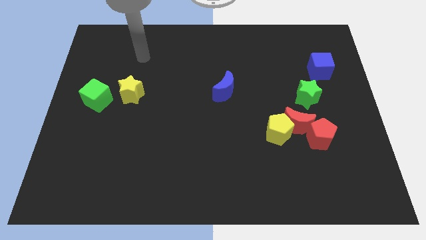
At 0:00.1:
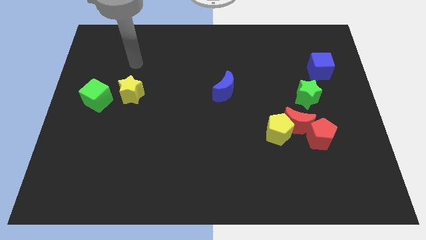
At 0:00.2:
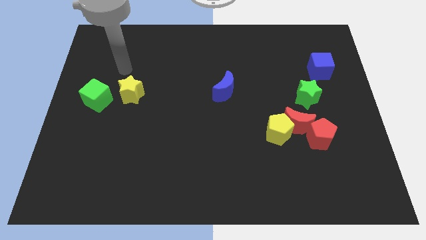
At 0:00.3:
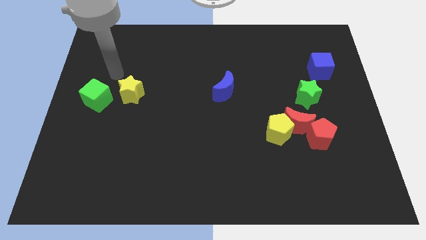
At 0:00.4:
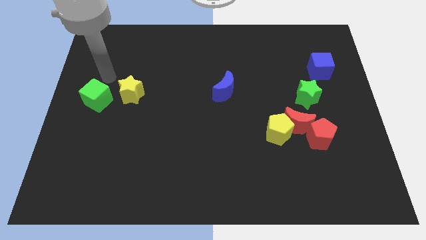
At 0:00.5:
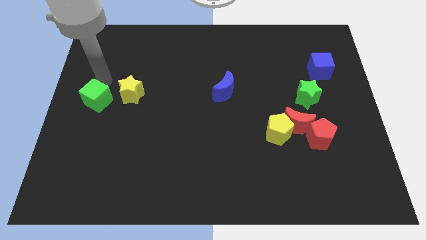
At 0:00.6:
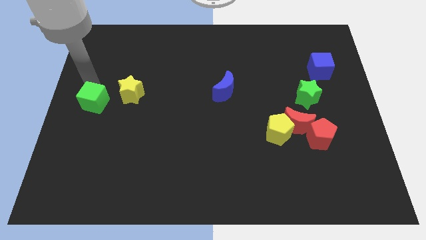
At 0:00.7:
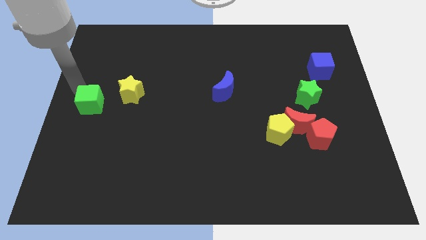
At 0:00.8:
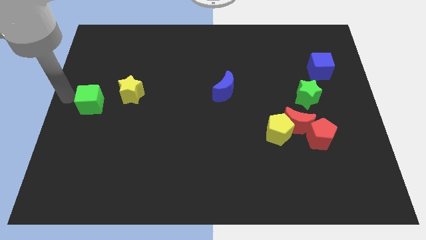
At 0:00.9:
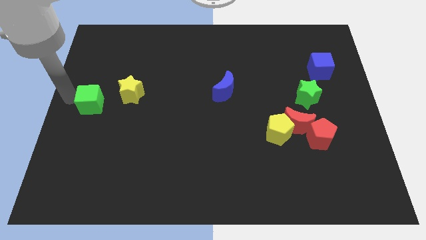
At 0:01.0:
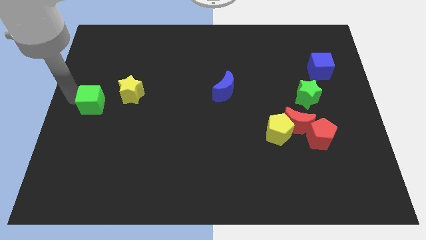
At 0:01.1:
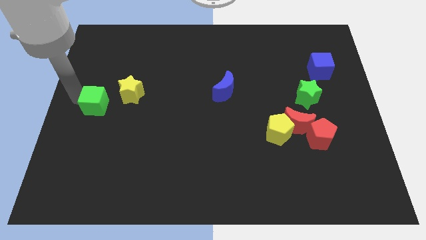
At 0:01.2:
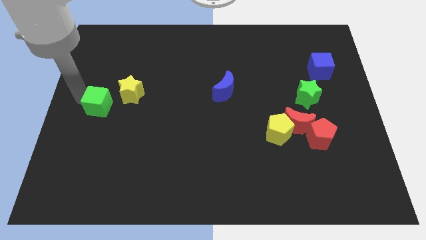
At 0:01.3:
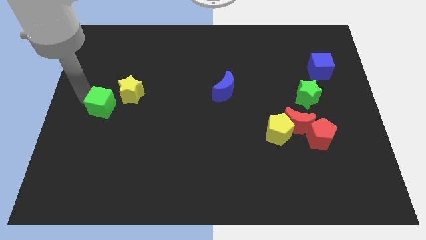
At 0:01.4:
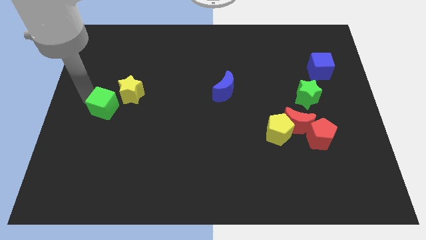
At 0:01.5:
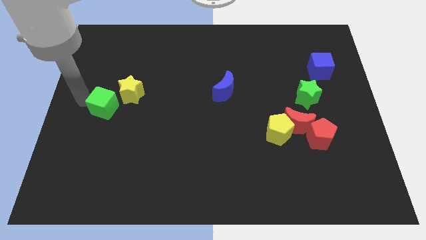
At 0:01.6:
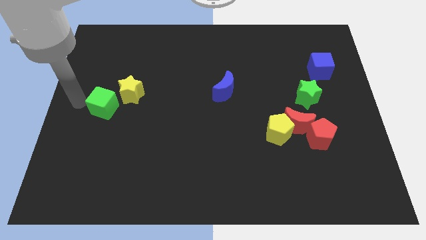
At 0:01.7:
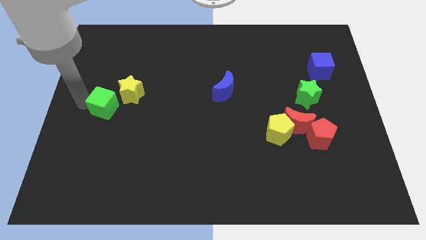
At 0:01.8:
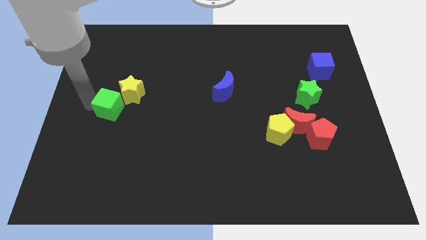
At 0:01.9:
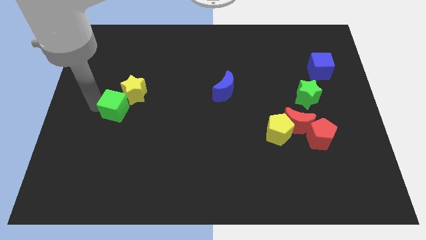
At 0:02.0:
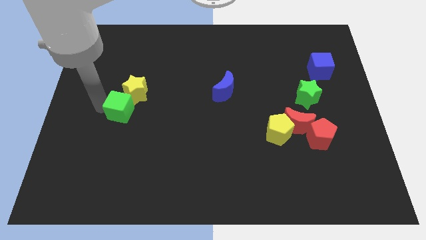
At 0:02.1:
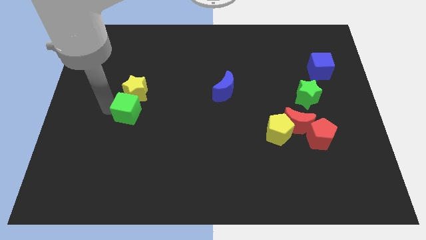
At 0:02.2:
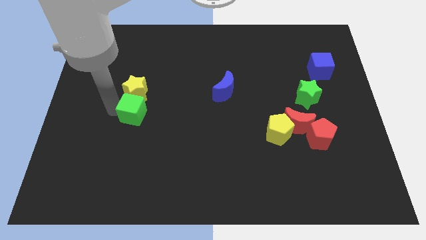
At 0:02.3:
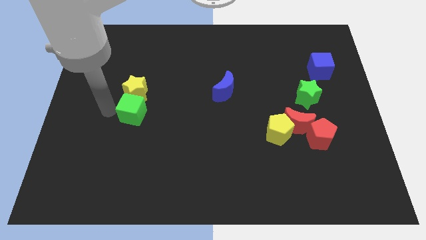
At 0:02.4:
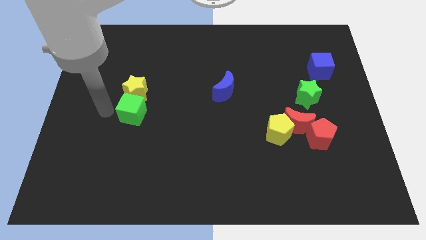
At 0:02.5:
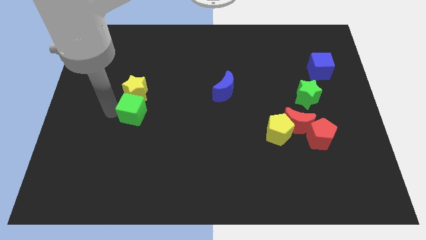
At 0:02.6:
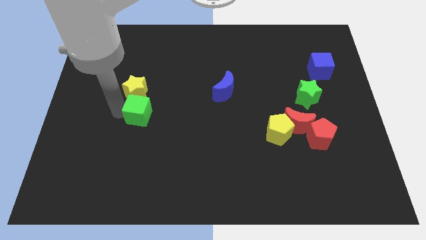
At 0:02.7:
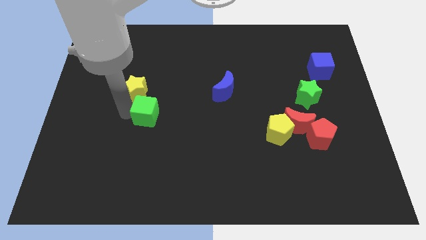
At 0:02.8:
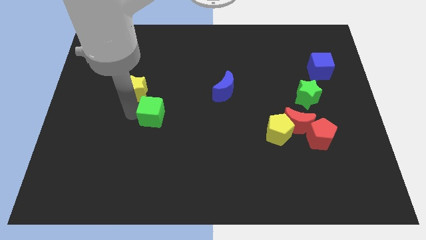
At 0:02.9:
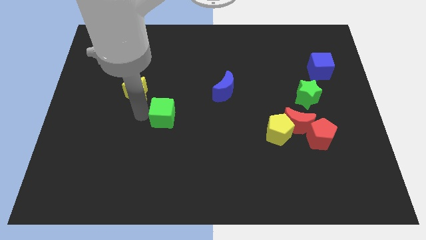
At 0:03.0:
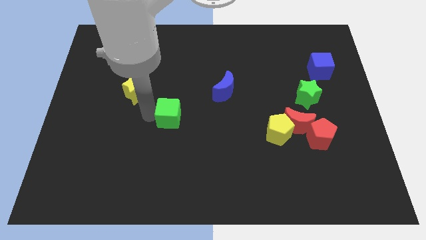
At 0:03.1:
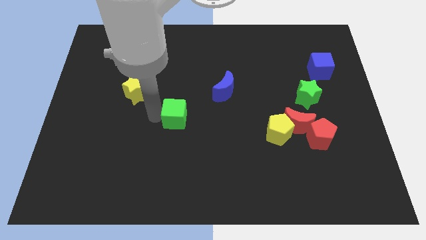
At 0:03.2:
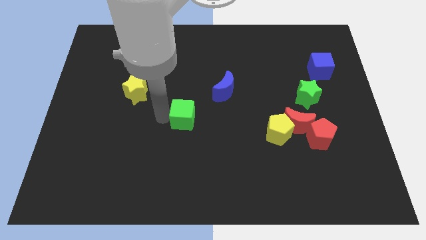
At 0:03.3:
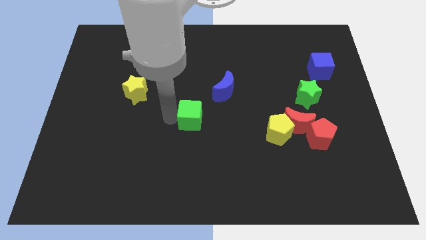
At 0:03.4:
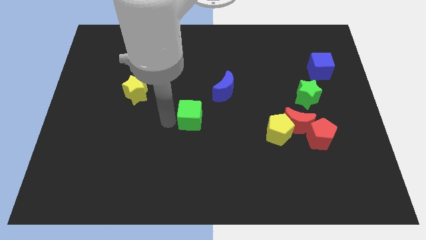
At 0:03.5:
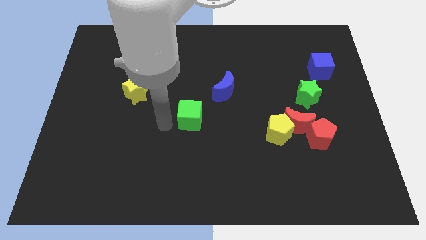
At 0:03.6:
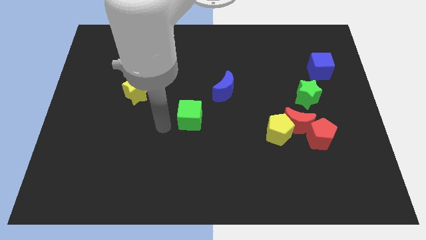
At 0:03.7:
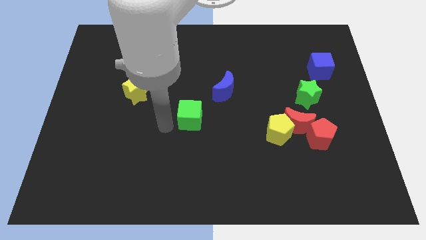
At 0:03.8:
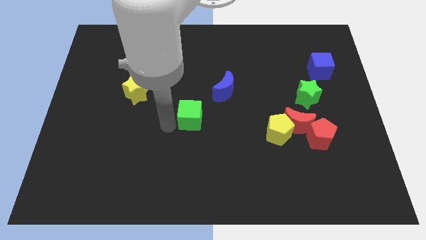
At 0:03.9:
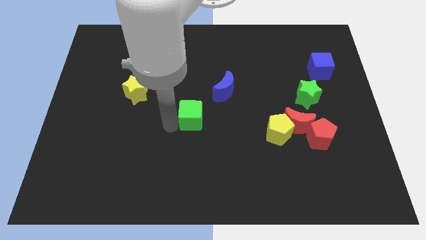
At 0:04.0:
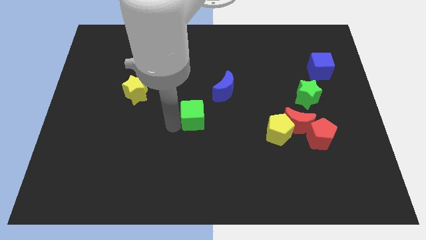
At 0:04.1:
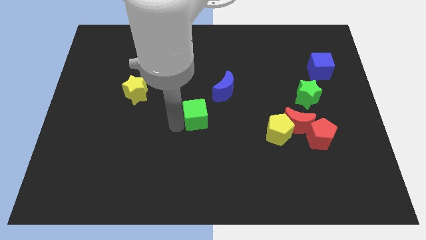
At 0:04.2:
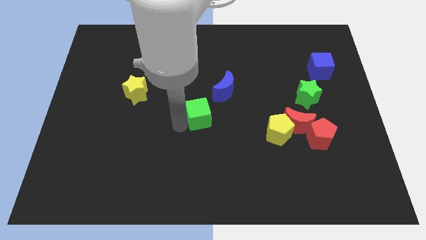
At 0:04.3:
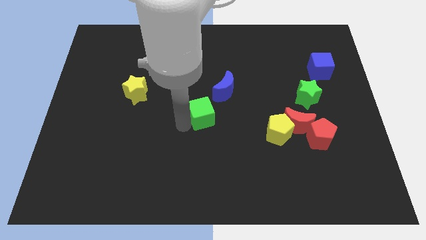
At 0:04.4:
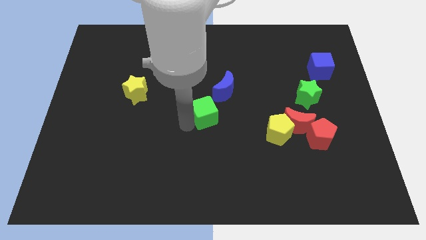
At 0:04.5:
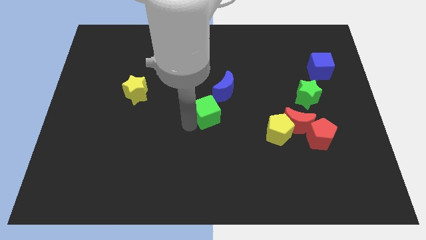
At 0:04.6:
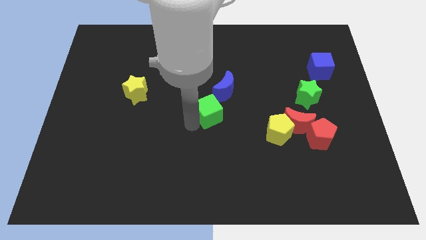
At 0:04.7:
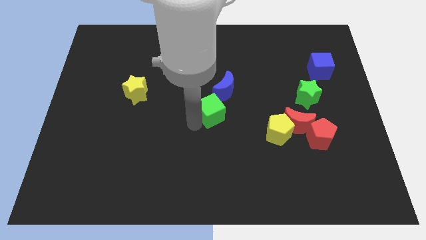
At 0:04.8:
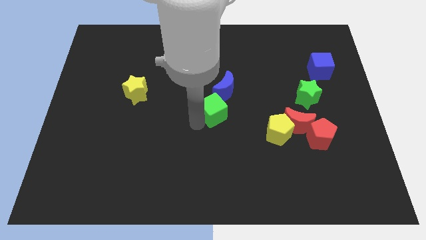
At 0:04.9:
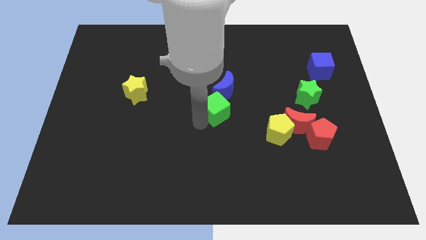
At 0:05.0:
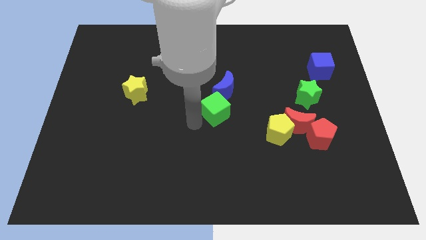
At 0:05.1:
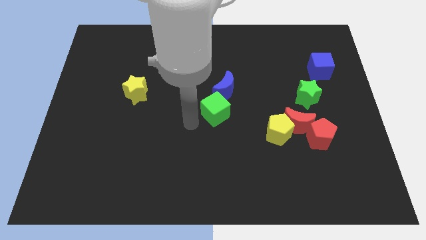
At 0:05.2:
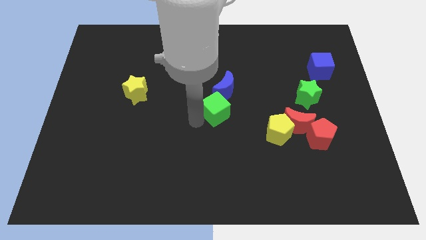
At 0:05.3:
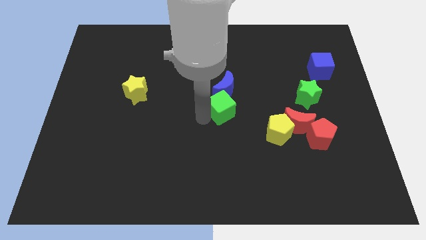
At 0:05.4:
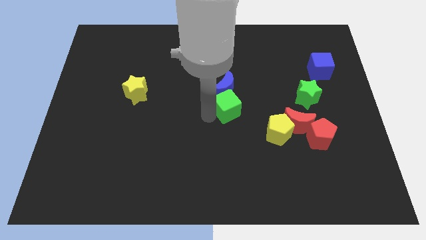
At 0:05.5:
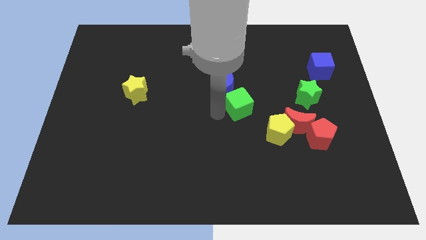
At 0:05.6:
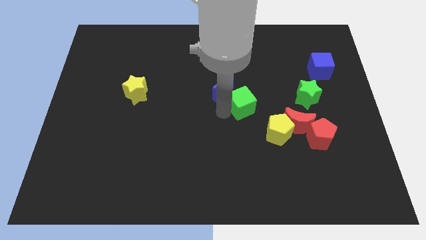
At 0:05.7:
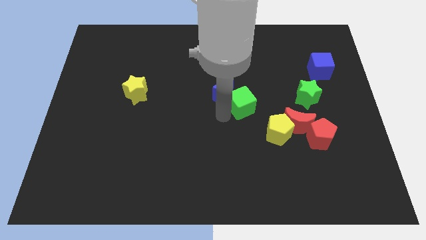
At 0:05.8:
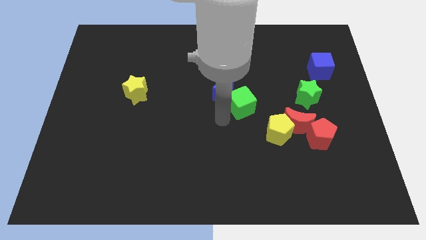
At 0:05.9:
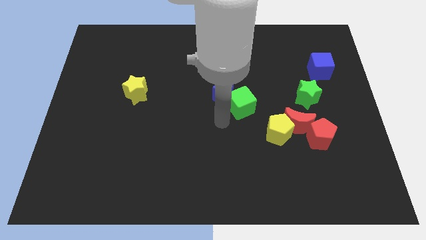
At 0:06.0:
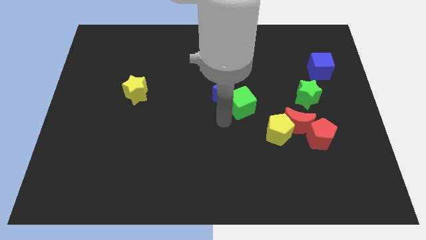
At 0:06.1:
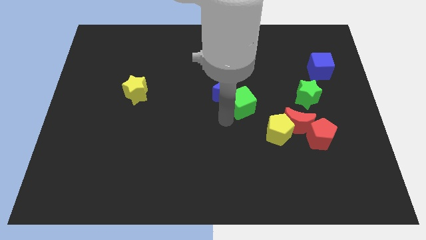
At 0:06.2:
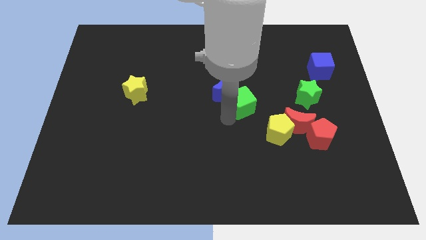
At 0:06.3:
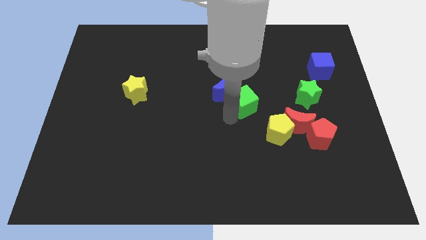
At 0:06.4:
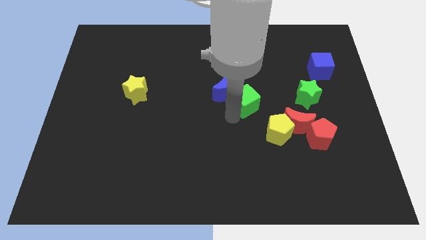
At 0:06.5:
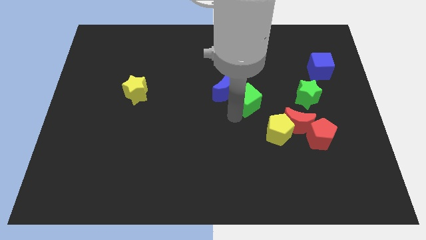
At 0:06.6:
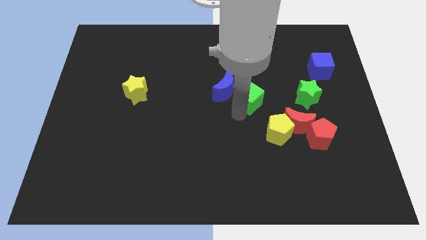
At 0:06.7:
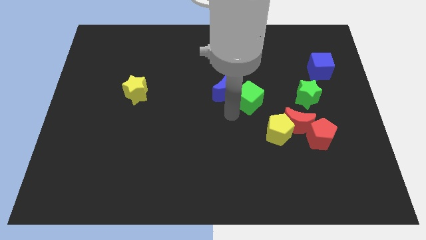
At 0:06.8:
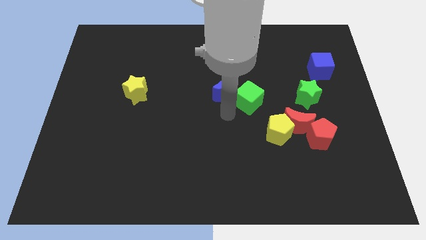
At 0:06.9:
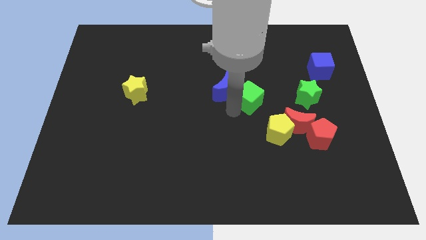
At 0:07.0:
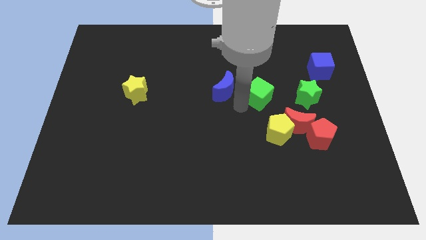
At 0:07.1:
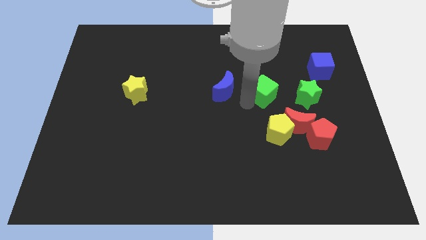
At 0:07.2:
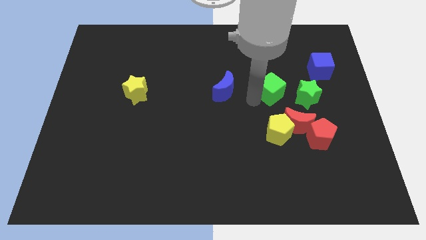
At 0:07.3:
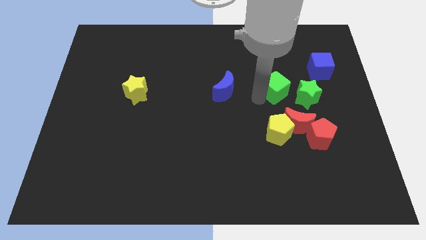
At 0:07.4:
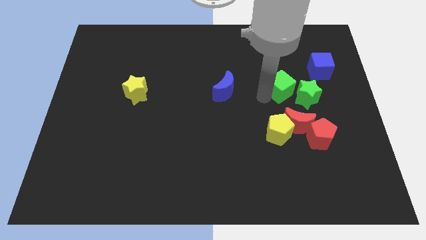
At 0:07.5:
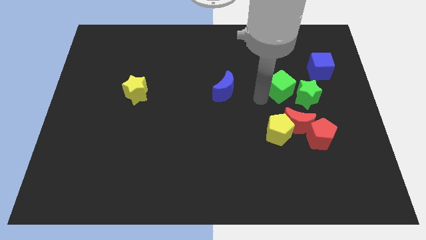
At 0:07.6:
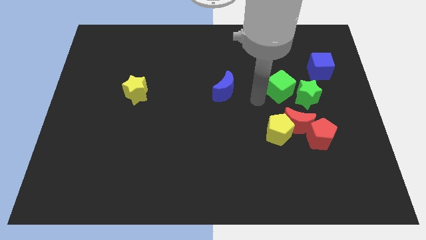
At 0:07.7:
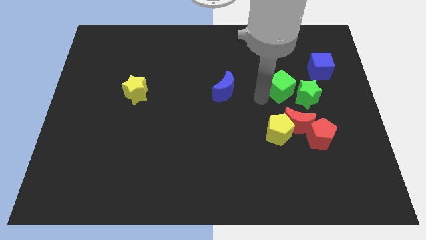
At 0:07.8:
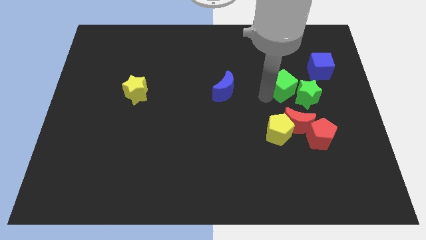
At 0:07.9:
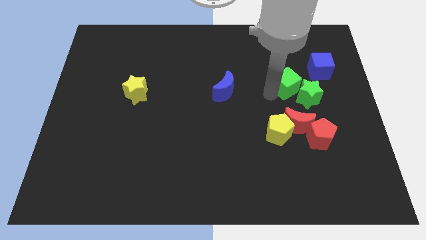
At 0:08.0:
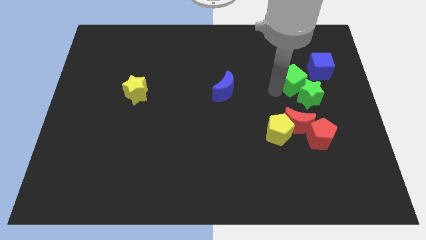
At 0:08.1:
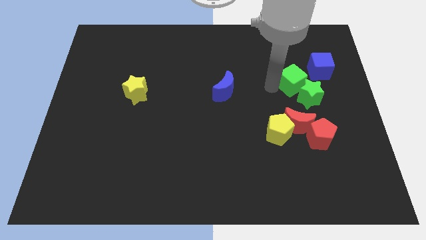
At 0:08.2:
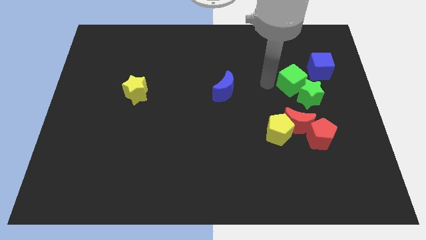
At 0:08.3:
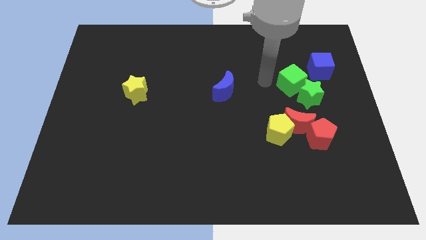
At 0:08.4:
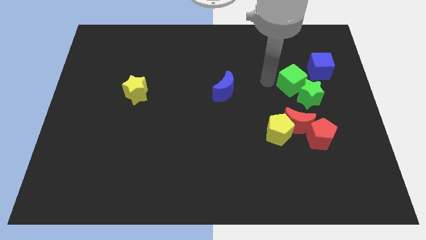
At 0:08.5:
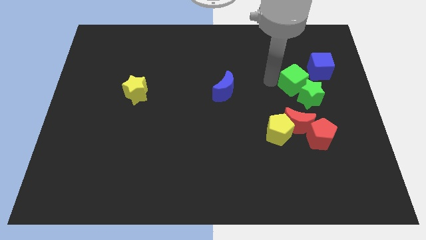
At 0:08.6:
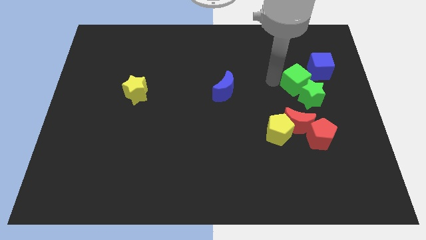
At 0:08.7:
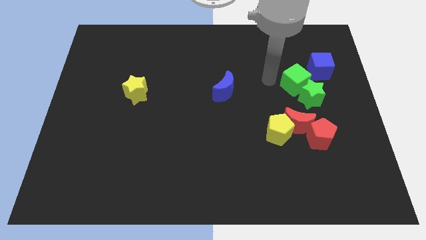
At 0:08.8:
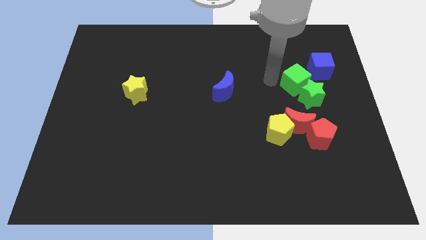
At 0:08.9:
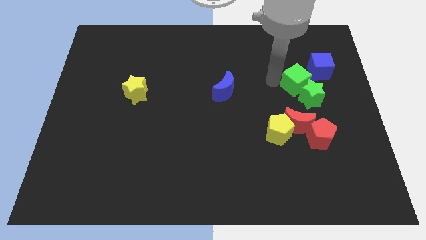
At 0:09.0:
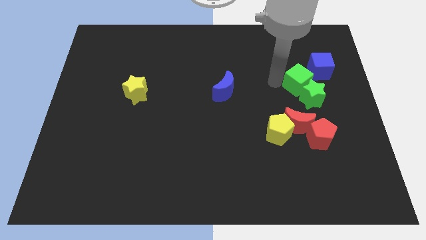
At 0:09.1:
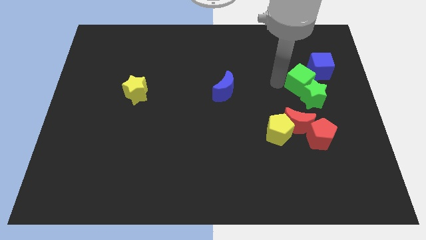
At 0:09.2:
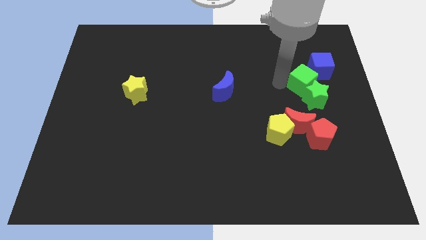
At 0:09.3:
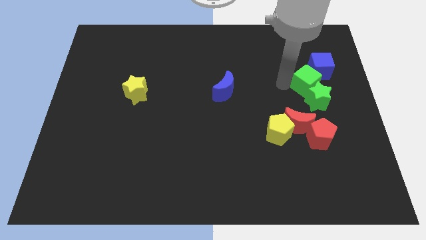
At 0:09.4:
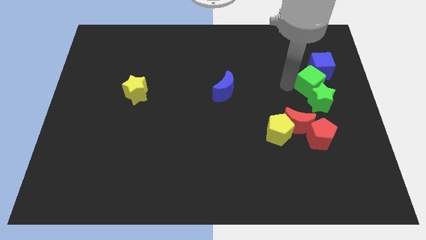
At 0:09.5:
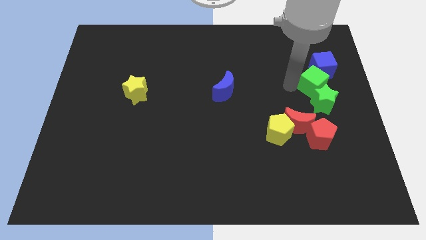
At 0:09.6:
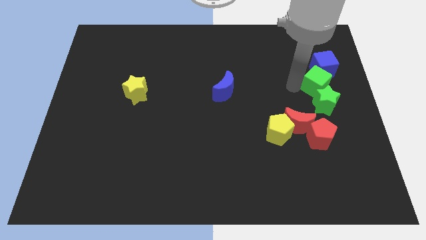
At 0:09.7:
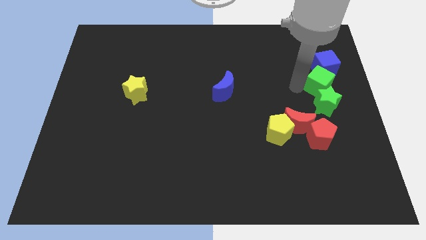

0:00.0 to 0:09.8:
slide the green cube to the center right
